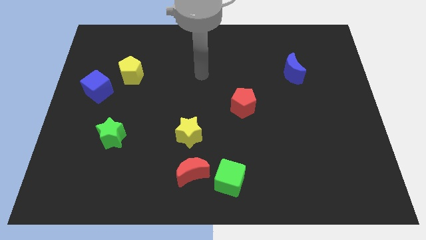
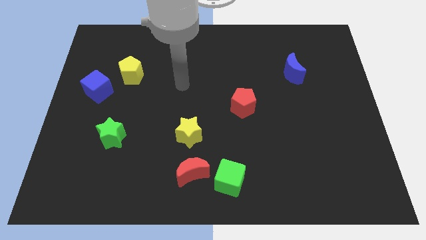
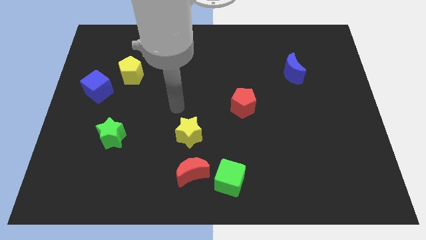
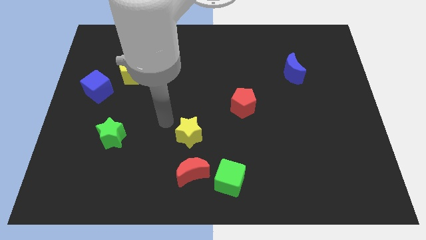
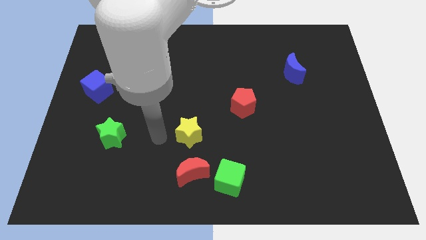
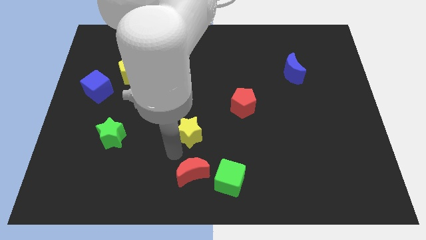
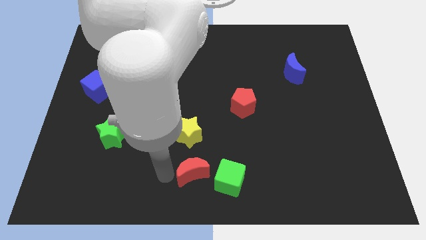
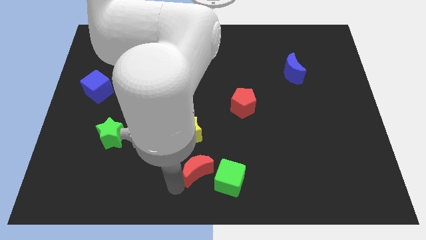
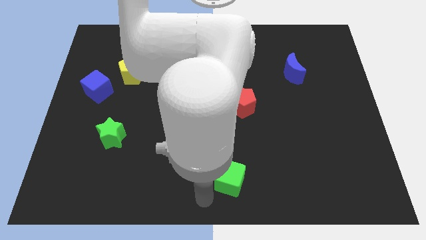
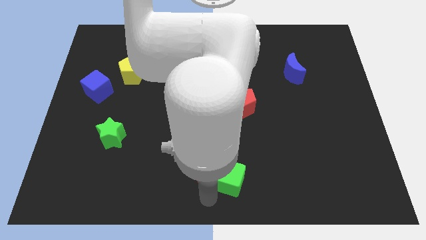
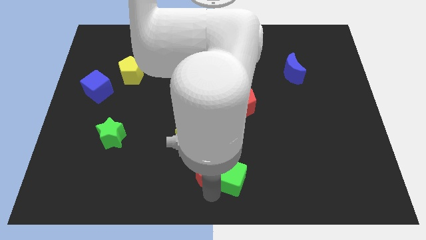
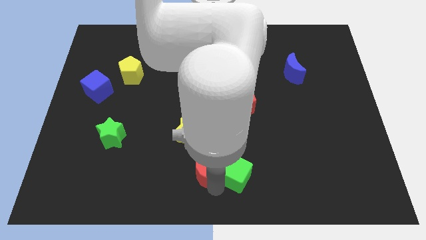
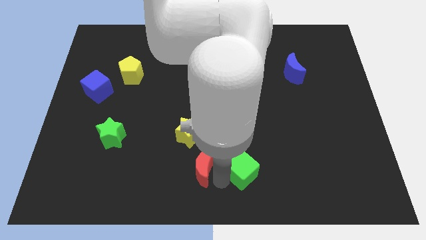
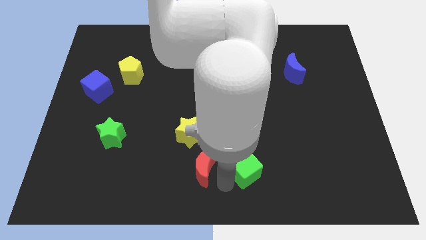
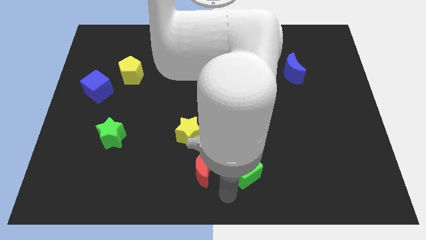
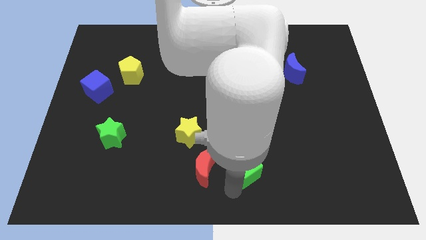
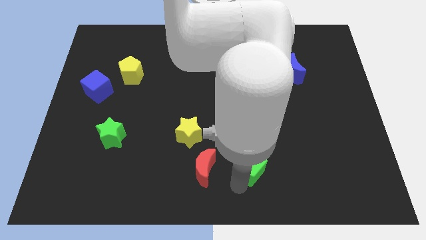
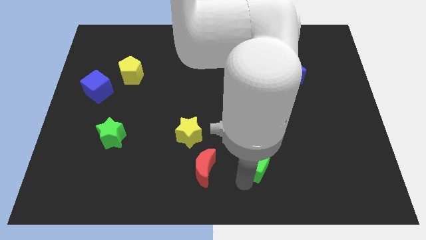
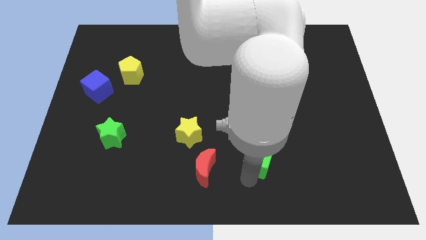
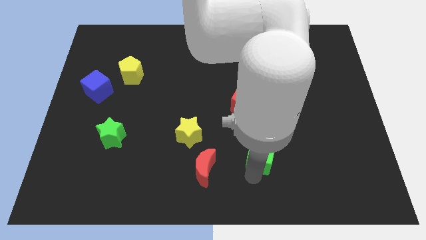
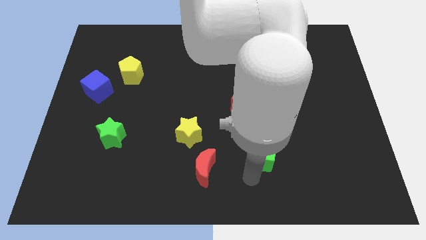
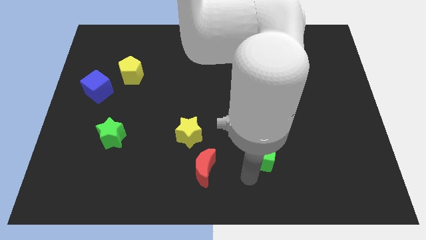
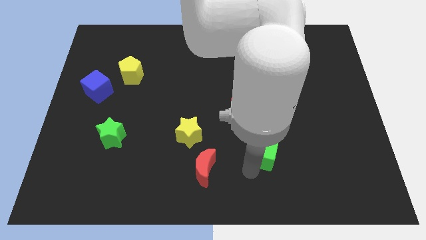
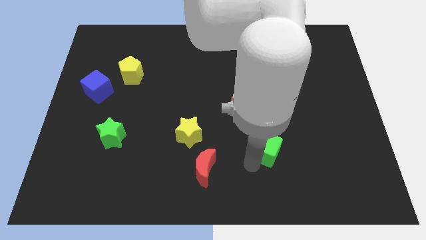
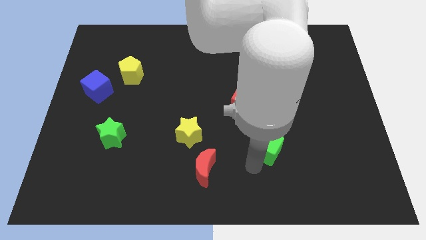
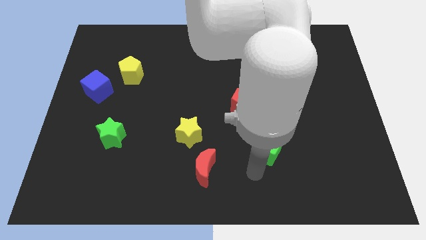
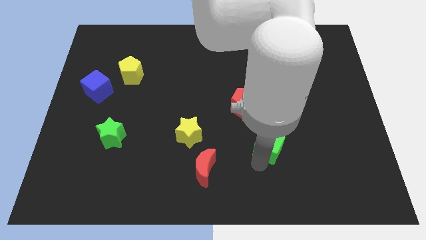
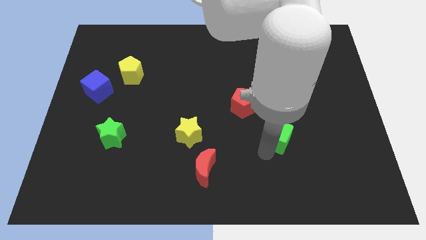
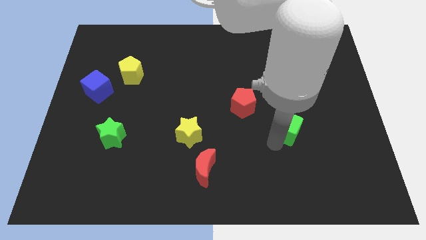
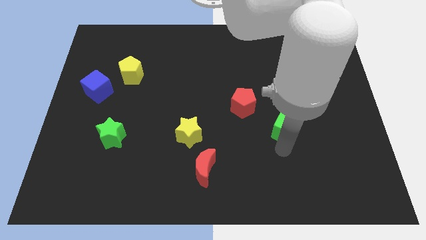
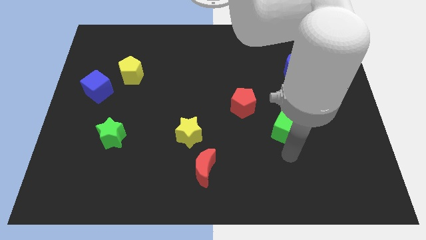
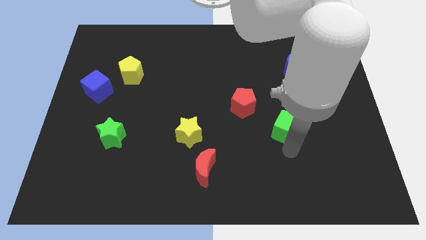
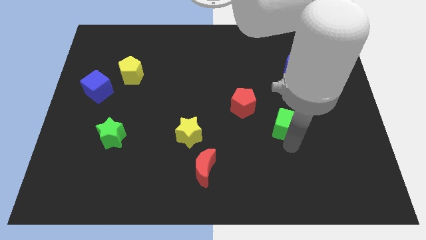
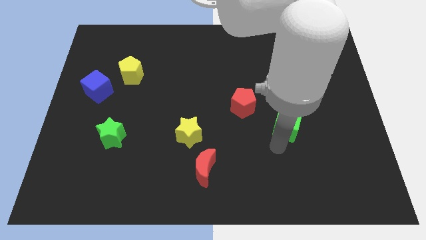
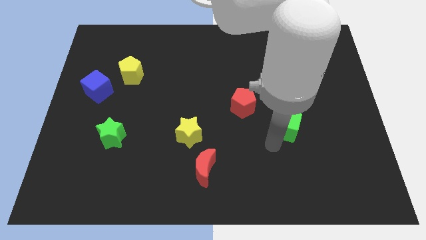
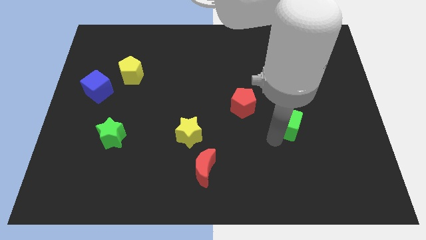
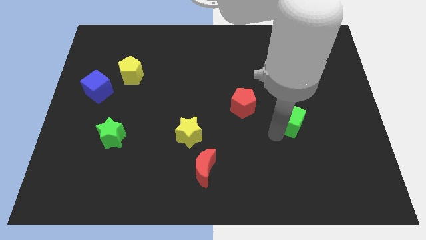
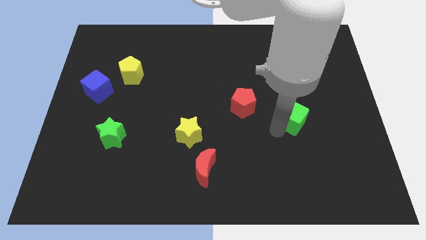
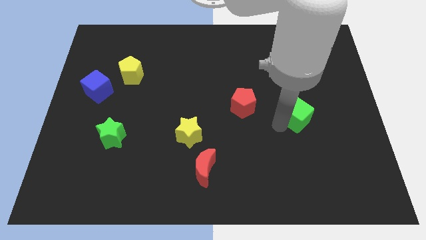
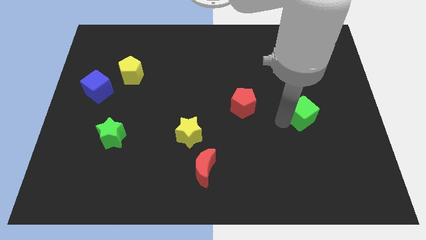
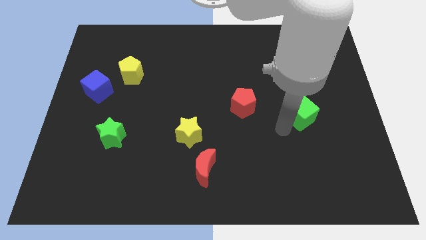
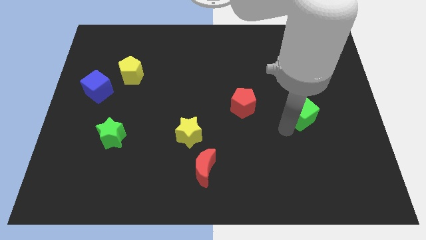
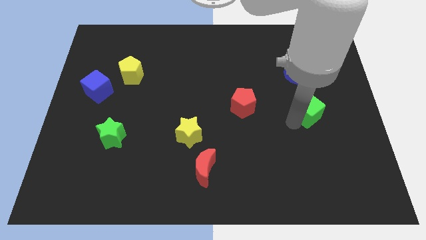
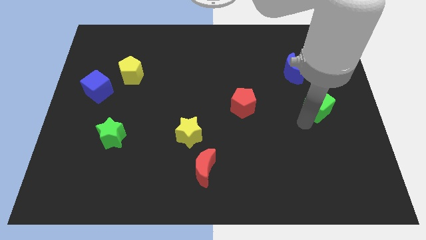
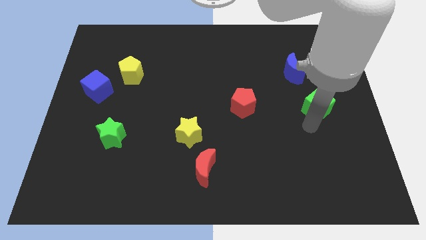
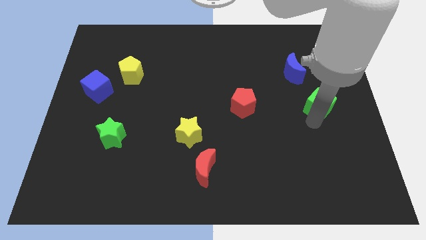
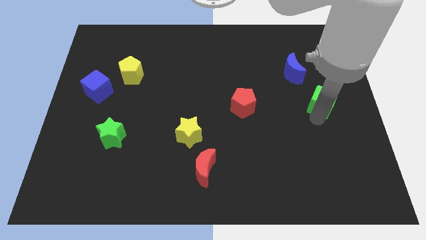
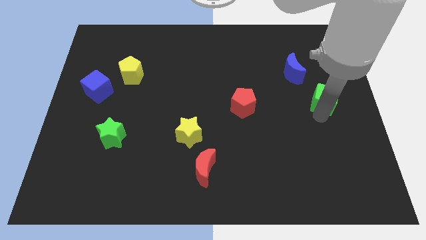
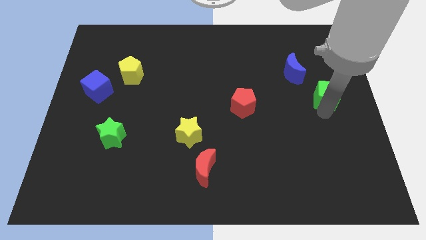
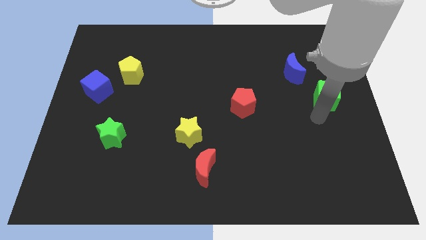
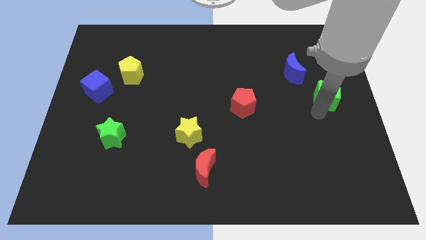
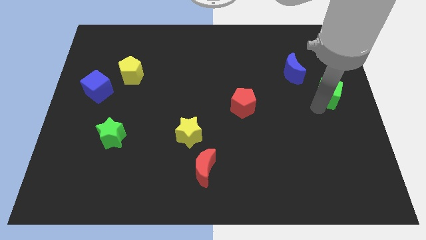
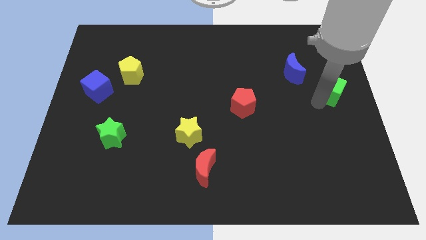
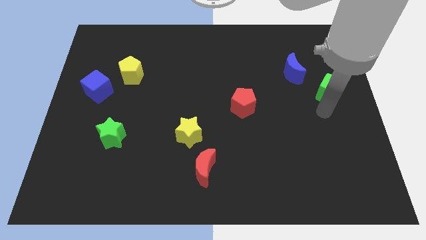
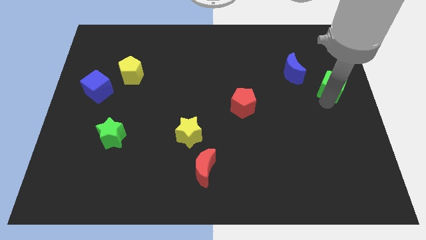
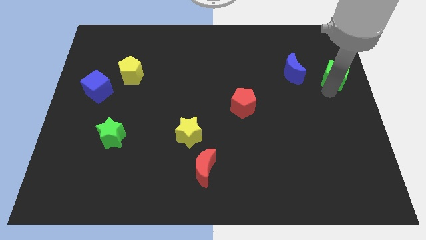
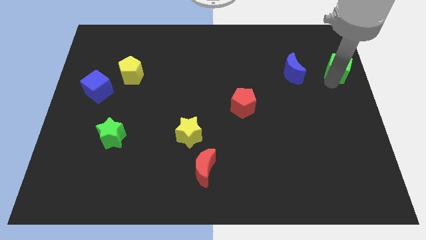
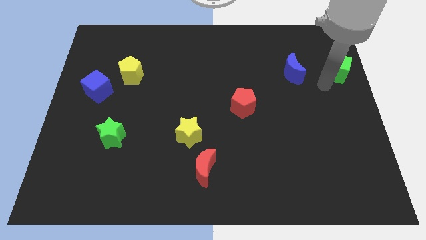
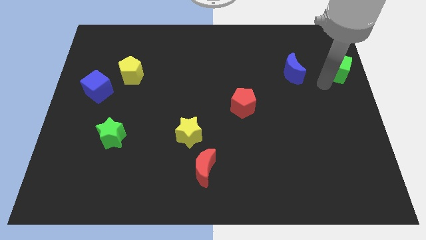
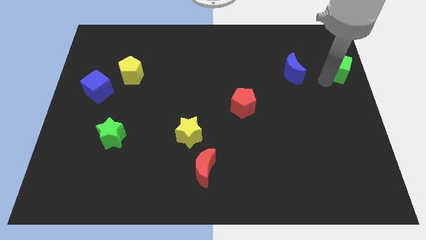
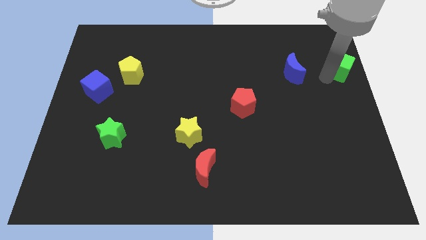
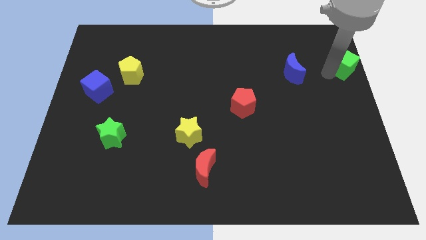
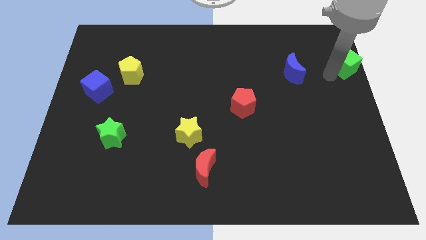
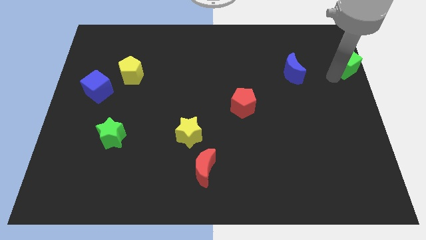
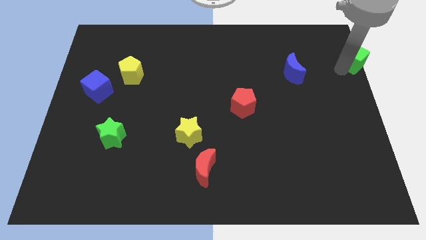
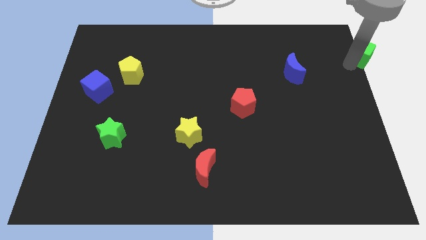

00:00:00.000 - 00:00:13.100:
slide the green cube to the top right corner

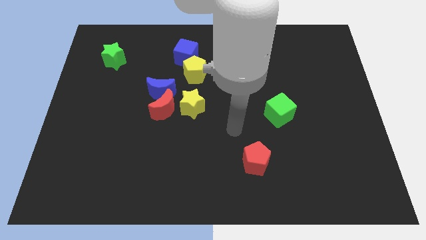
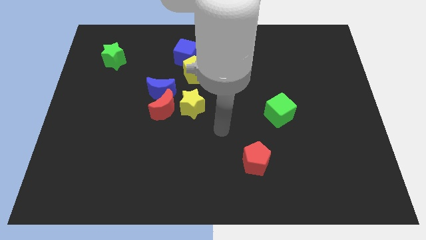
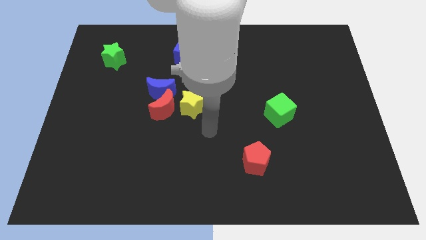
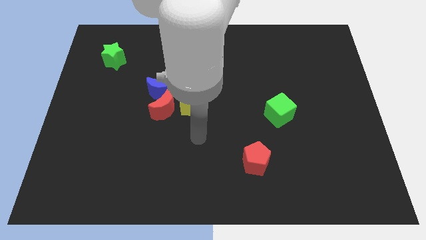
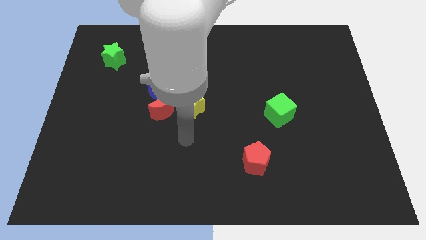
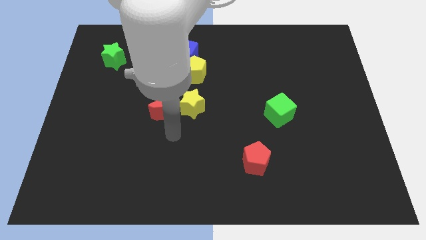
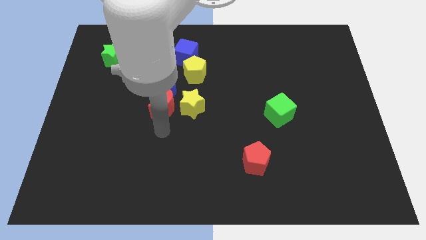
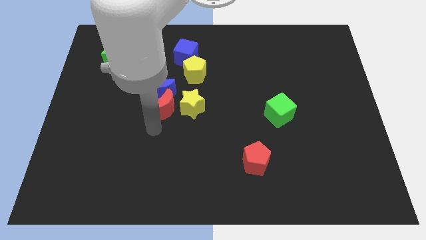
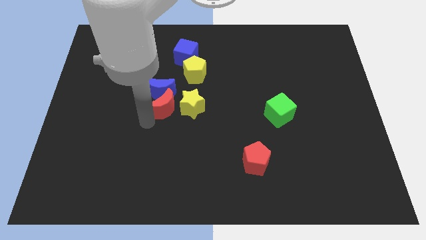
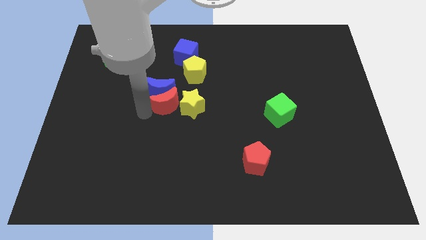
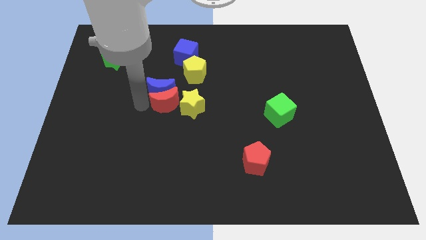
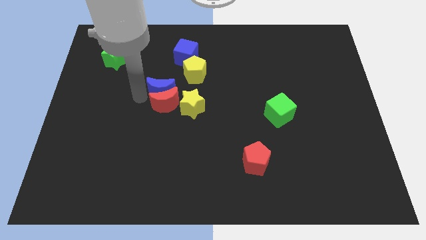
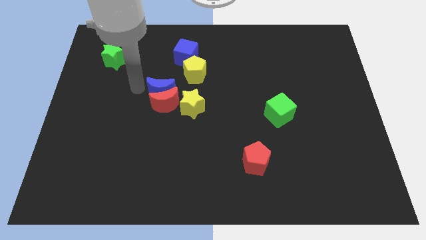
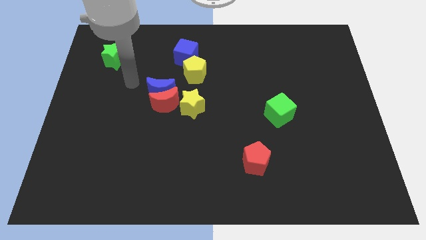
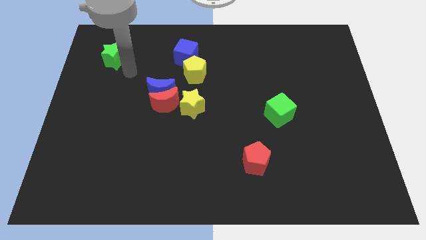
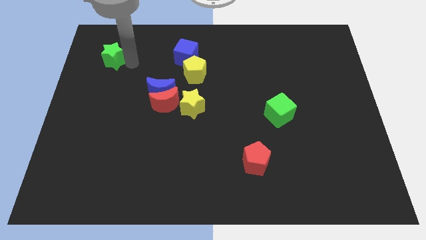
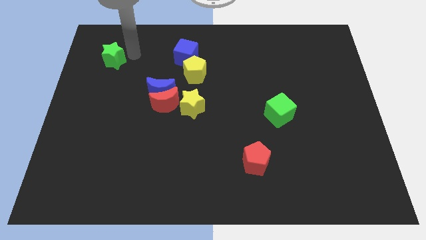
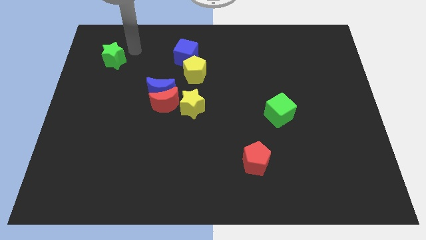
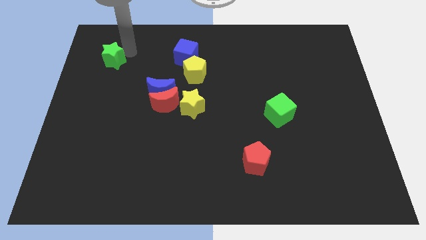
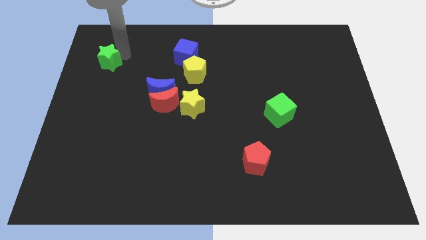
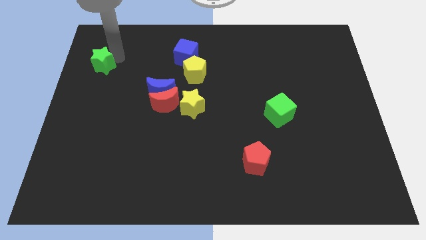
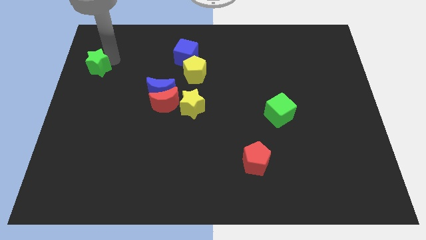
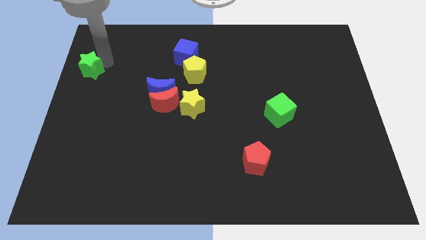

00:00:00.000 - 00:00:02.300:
move the green star to the left side of the board
